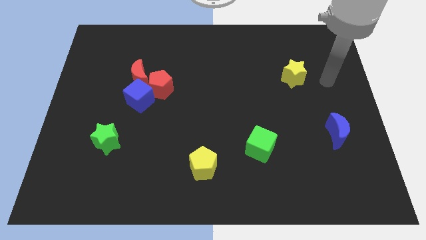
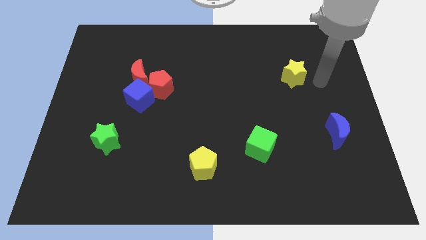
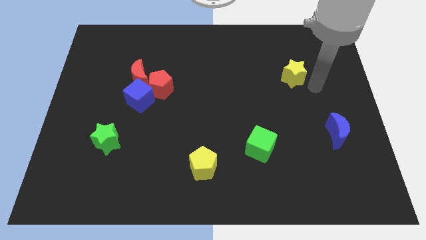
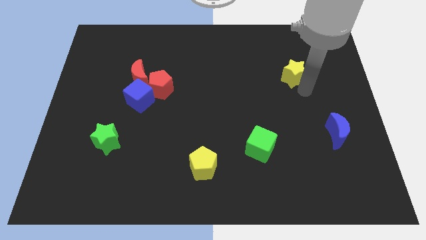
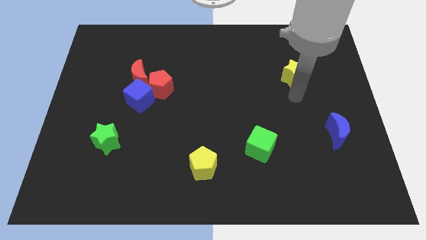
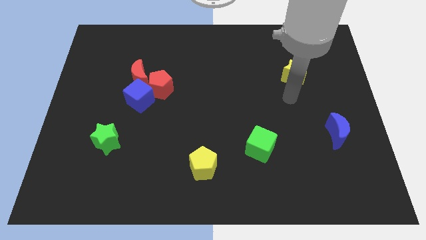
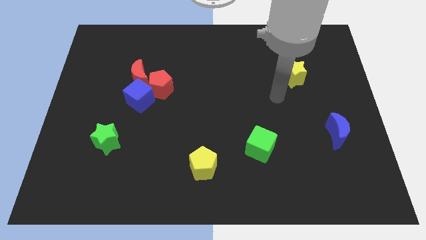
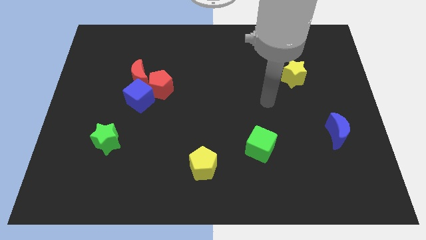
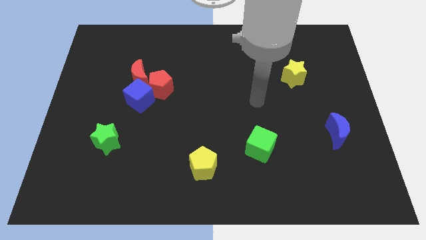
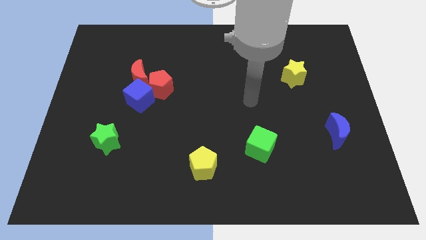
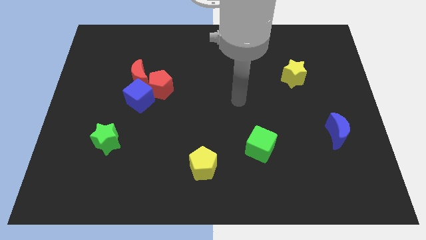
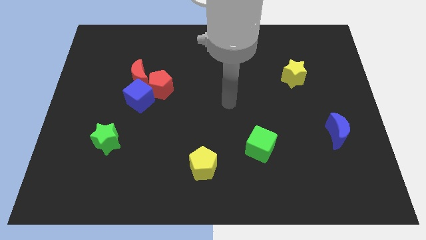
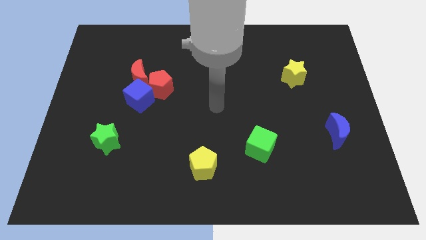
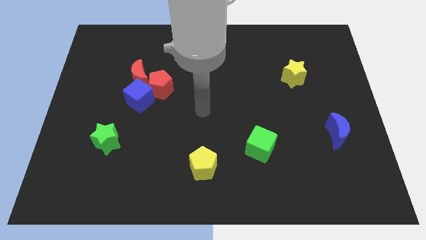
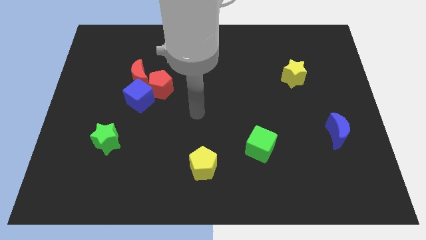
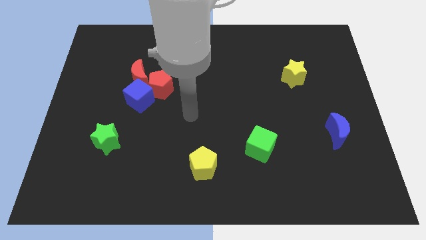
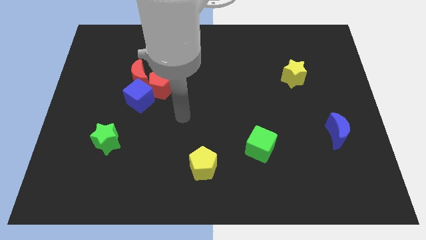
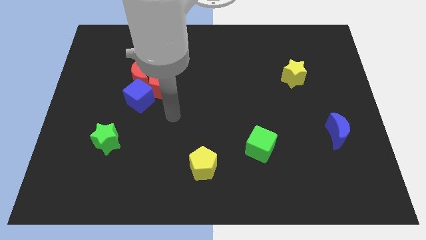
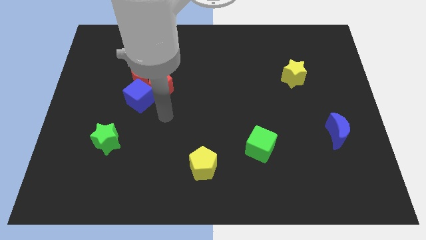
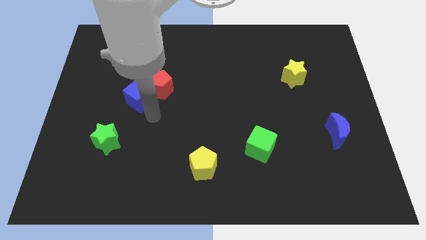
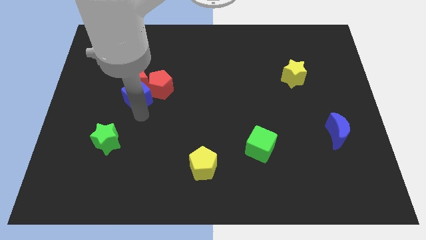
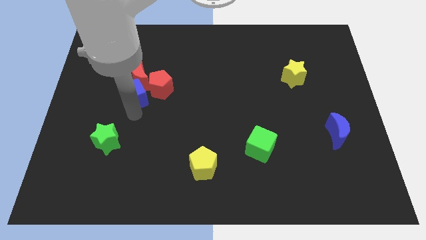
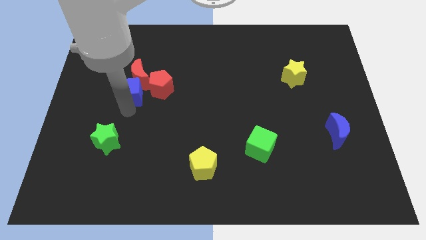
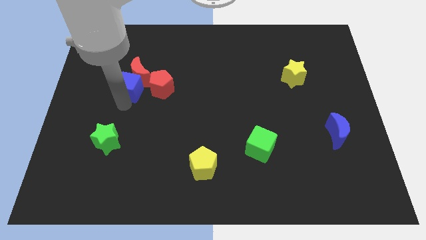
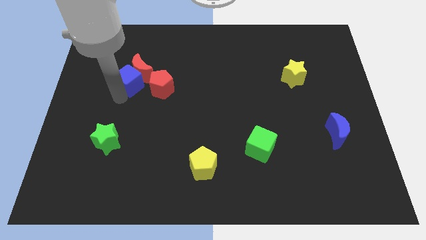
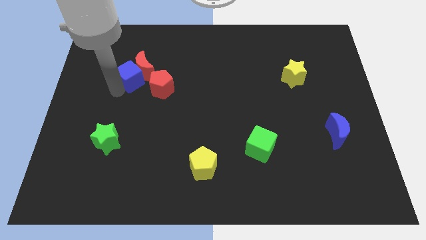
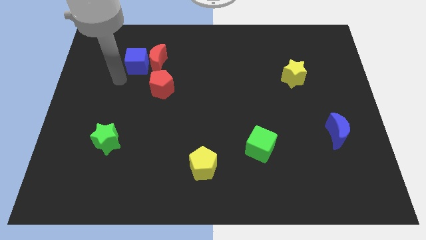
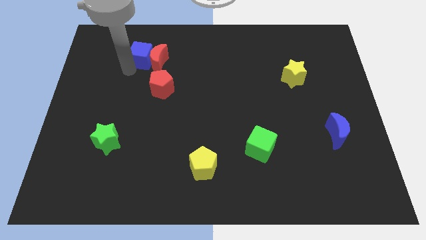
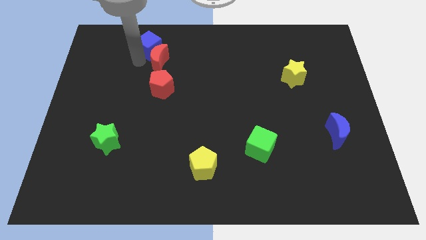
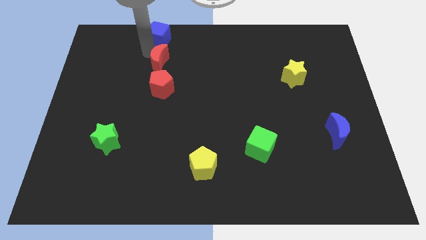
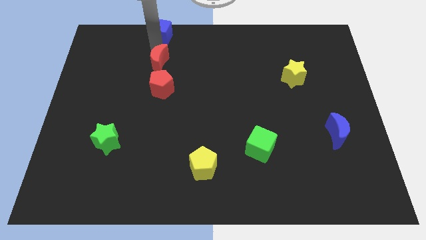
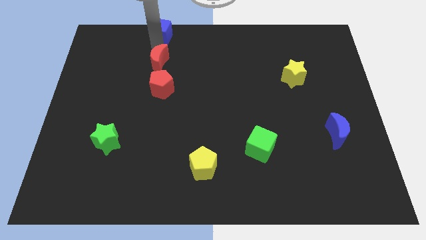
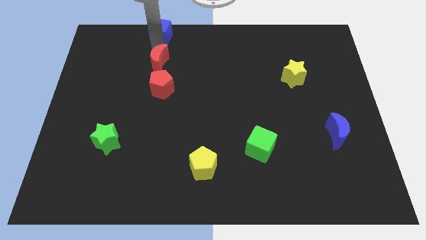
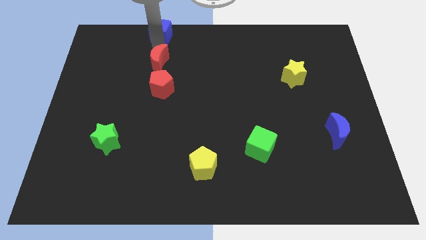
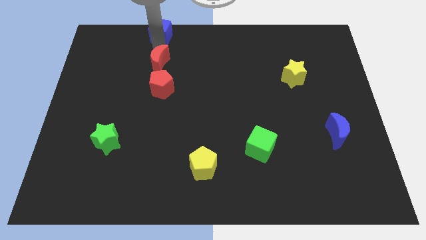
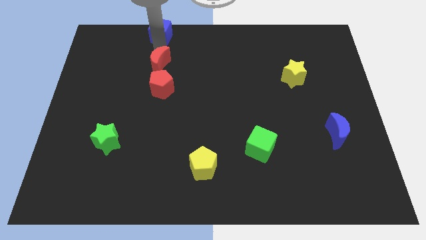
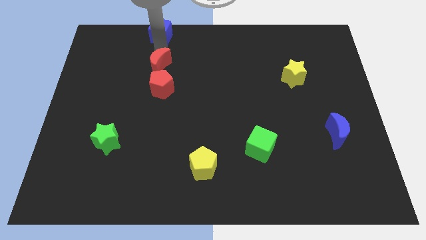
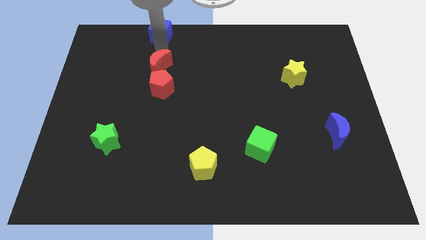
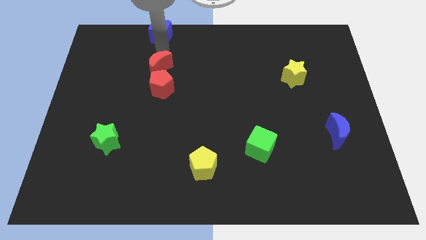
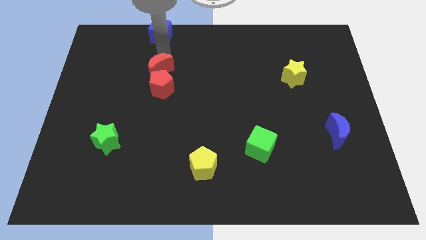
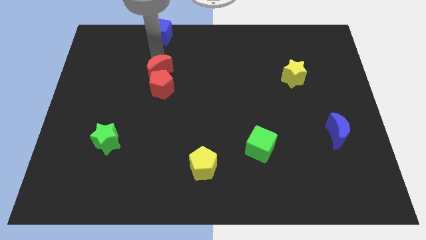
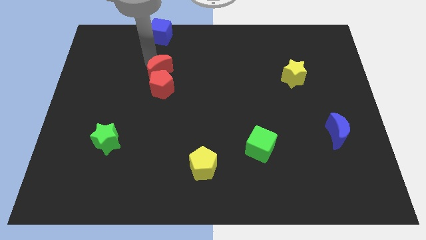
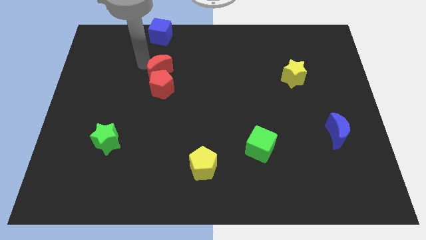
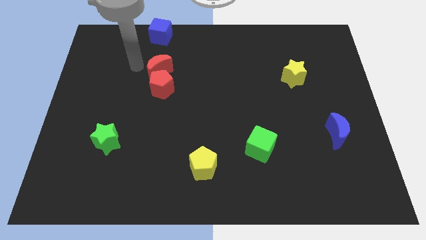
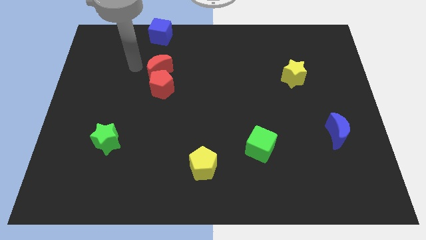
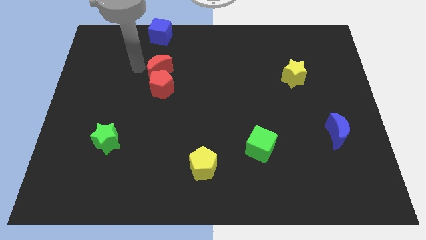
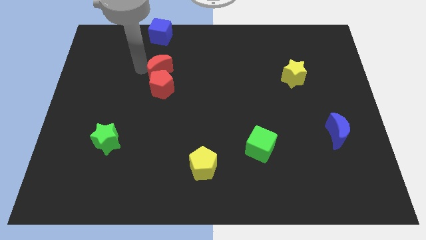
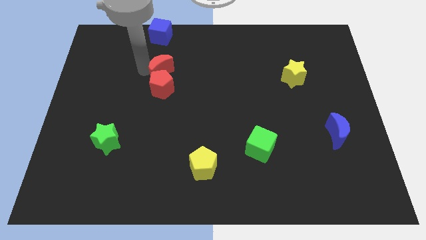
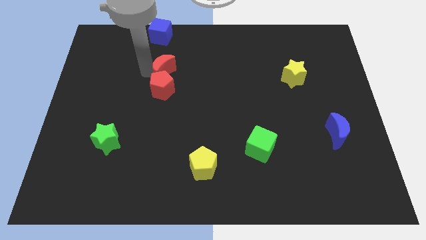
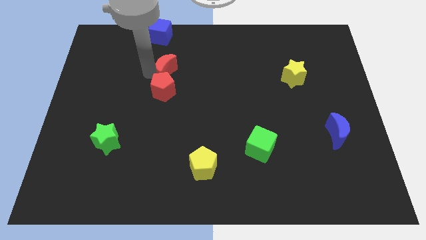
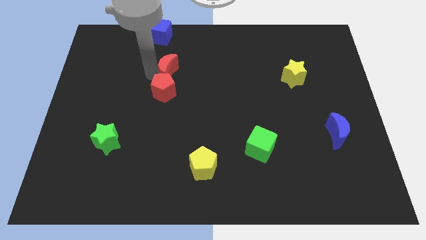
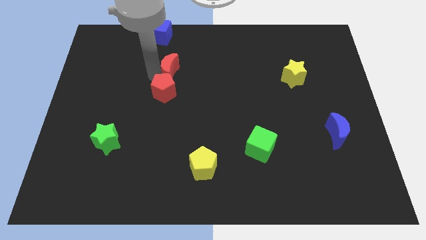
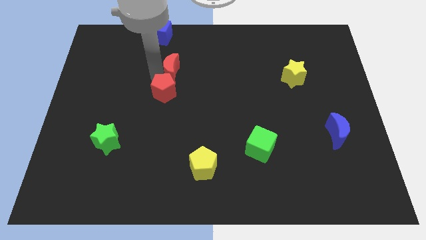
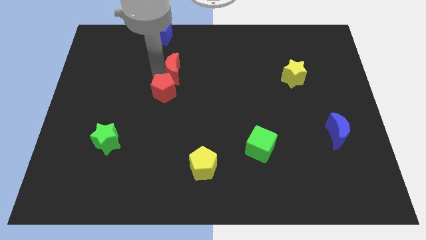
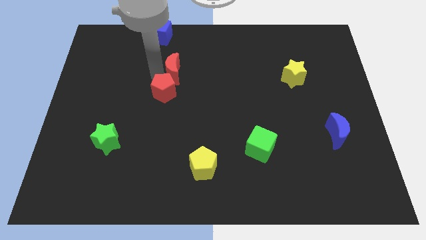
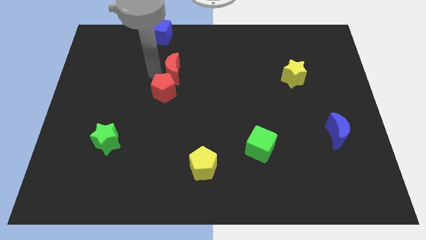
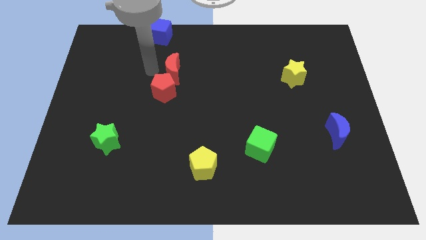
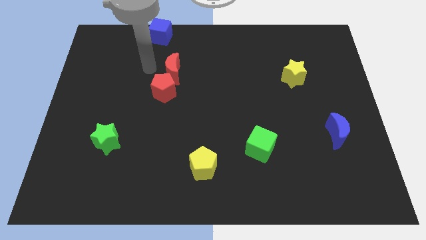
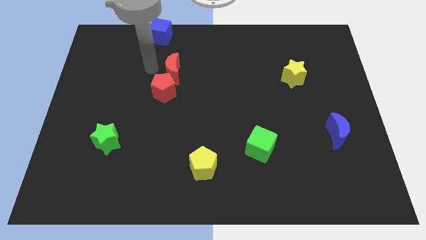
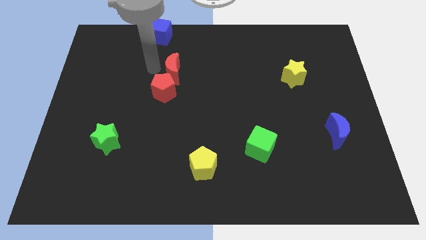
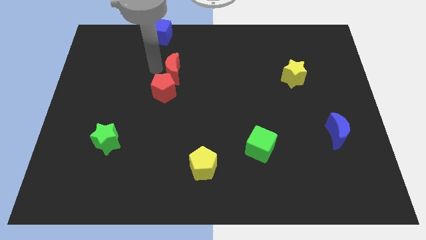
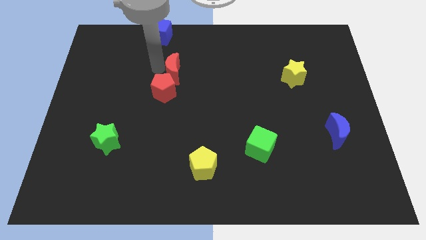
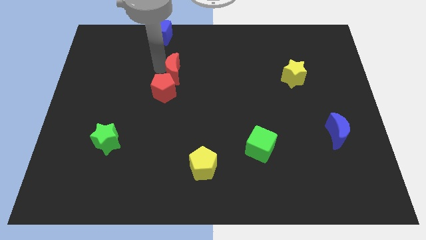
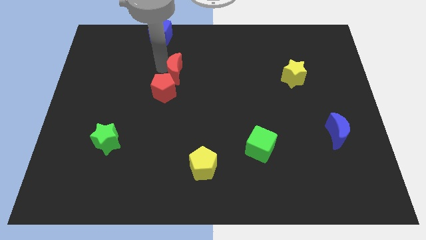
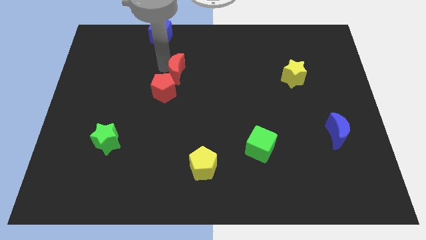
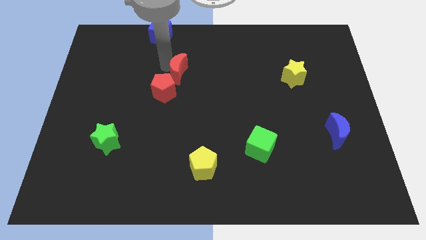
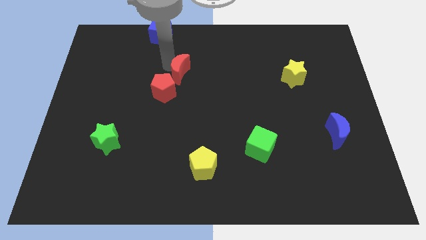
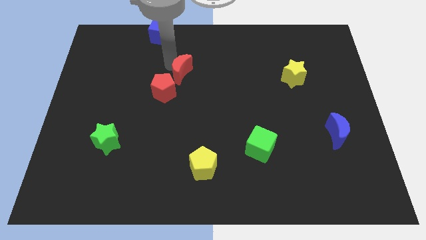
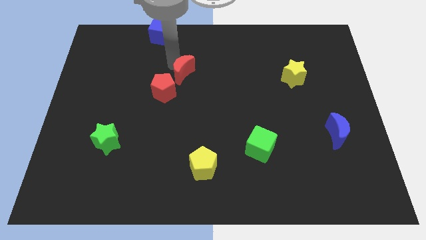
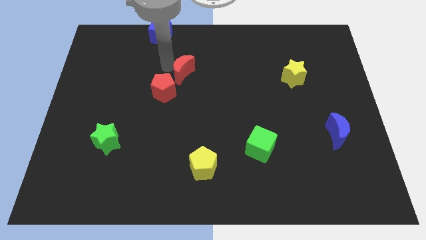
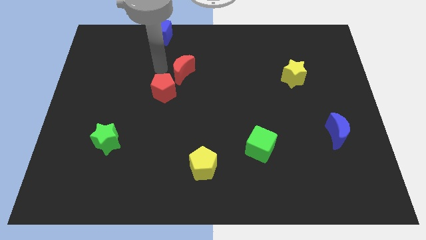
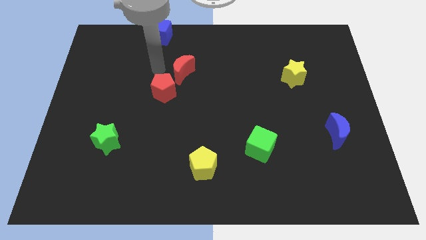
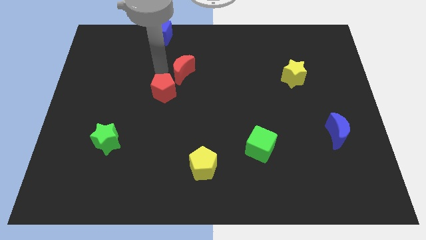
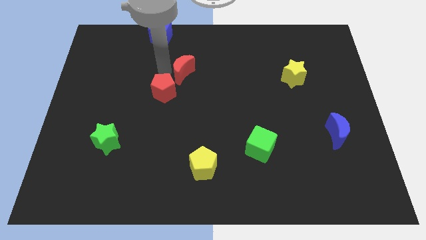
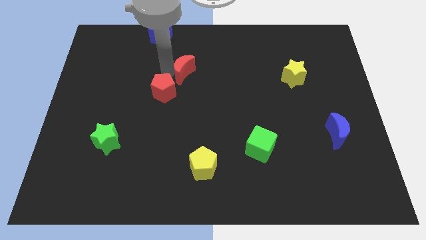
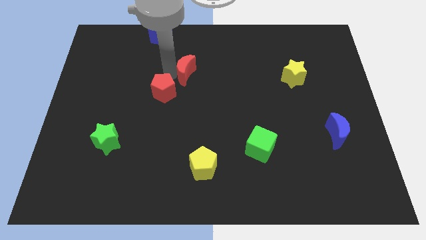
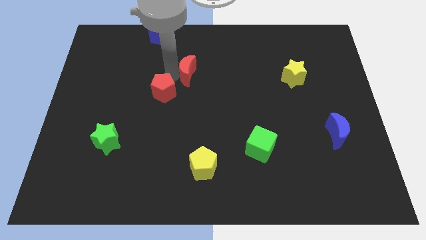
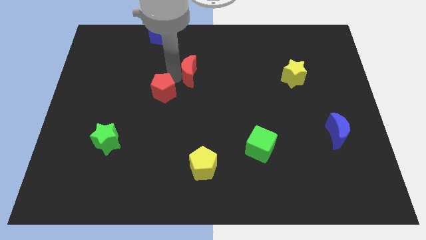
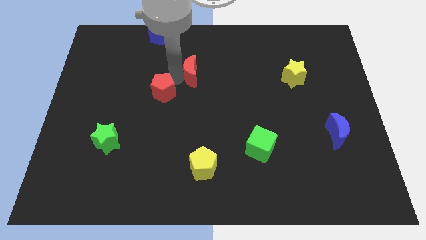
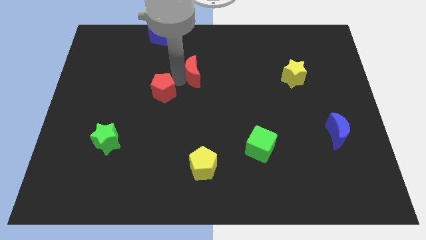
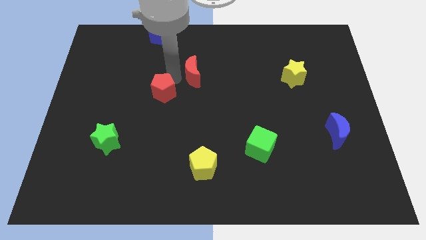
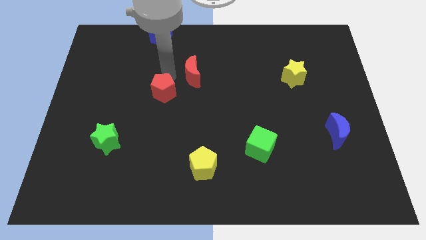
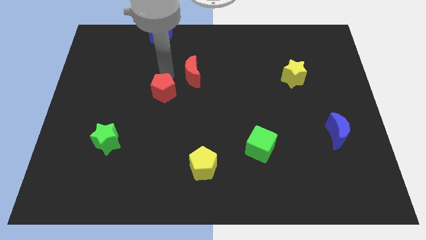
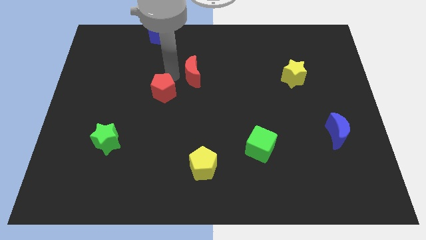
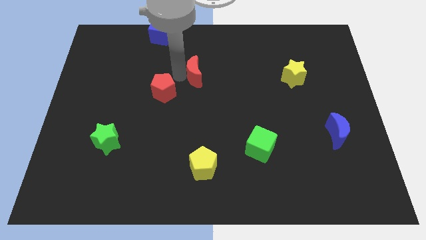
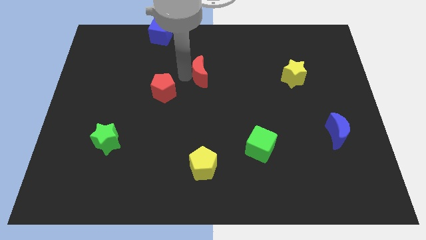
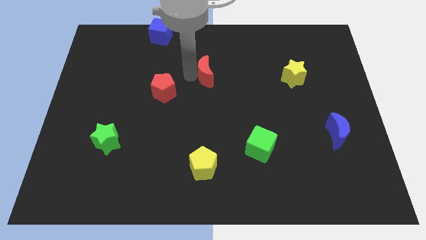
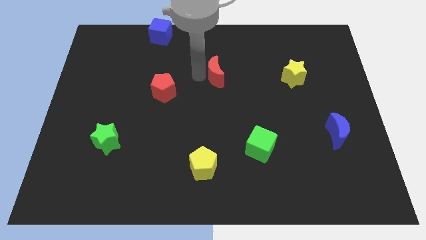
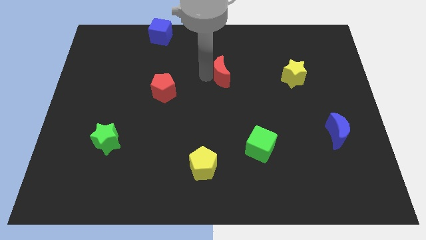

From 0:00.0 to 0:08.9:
slide the red moon to the right
